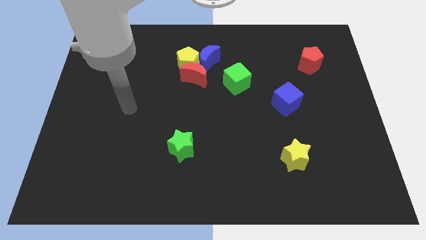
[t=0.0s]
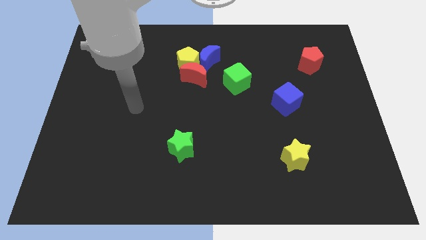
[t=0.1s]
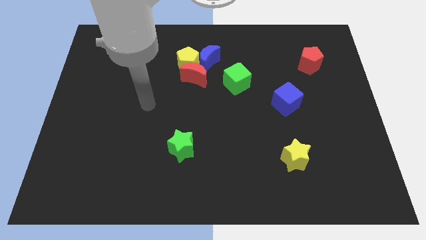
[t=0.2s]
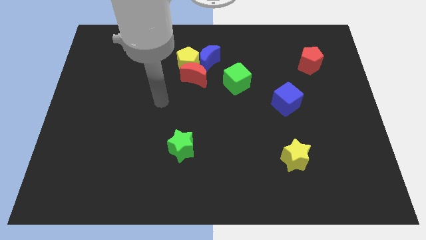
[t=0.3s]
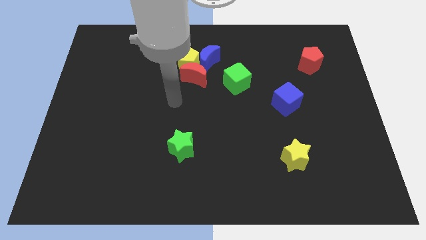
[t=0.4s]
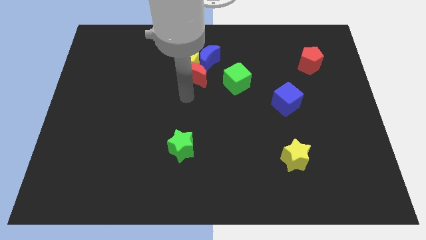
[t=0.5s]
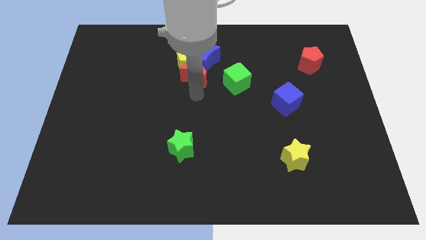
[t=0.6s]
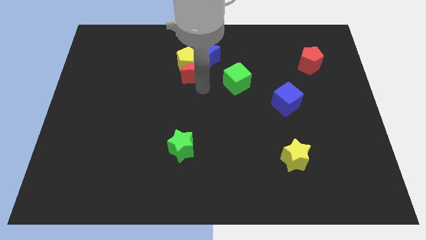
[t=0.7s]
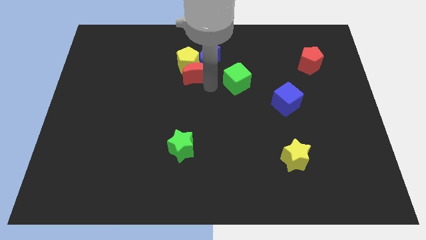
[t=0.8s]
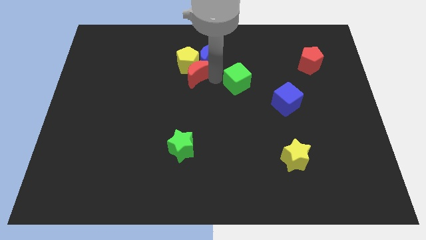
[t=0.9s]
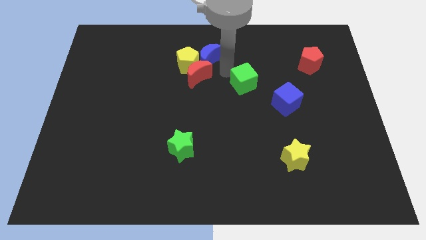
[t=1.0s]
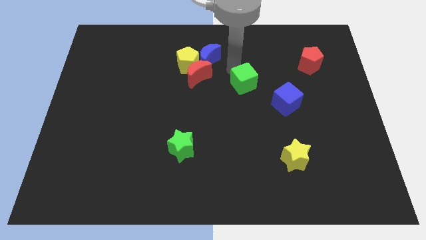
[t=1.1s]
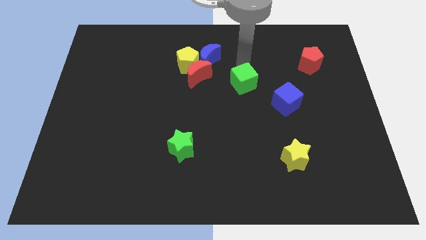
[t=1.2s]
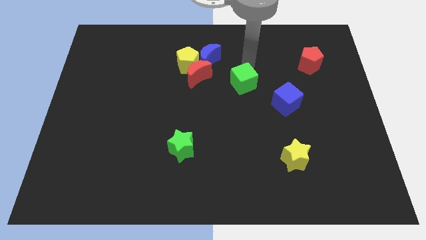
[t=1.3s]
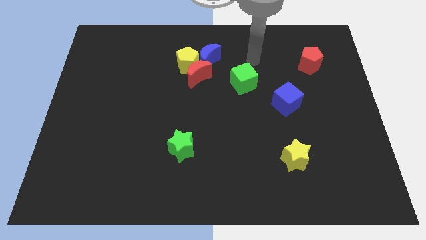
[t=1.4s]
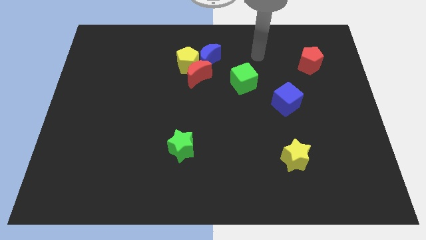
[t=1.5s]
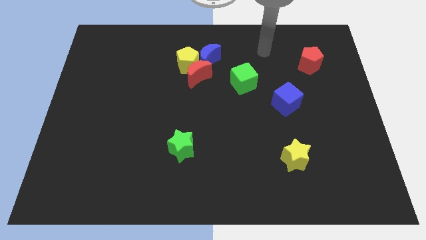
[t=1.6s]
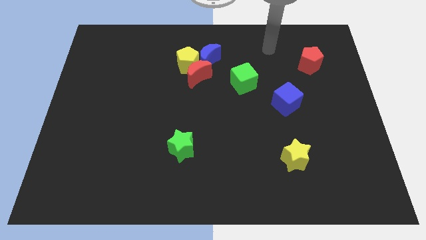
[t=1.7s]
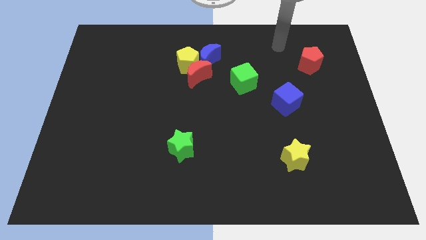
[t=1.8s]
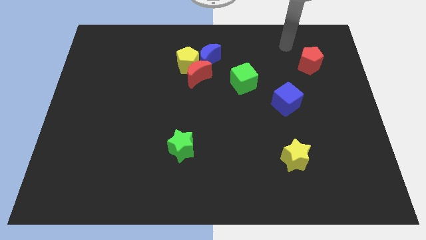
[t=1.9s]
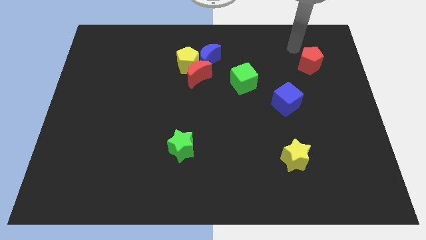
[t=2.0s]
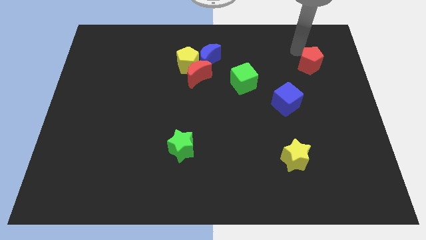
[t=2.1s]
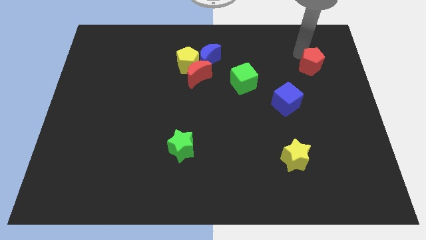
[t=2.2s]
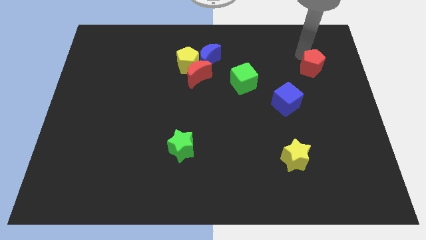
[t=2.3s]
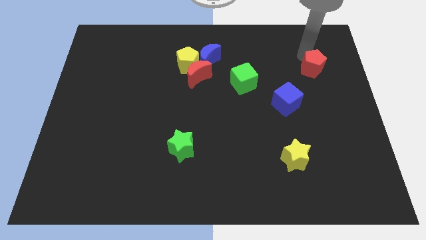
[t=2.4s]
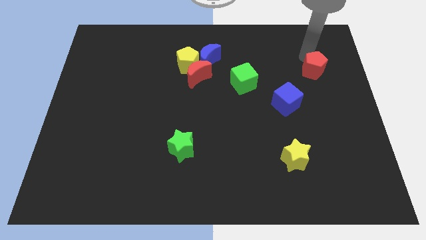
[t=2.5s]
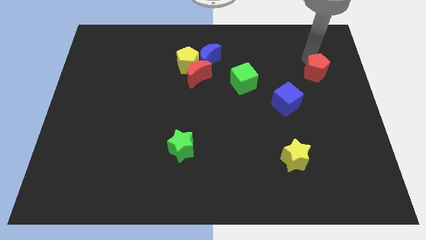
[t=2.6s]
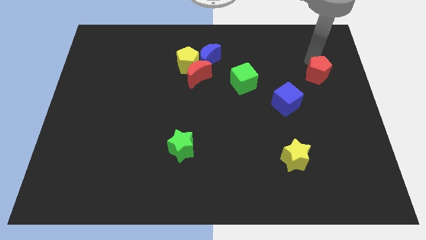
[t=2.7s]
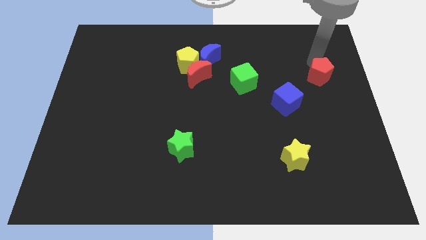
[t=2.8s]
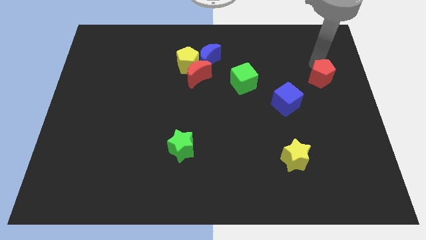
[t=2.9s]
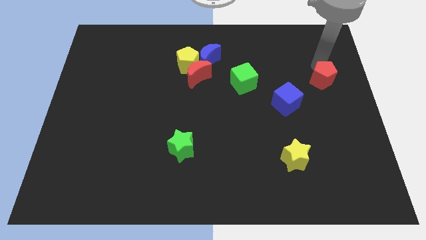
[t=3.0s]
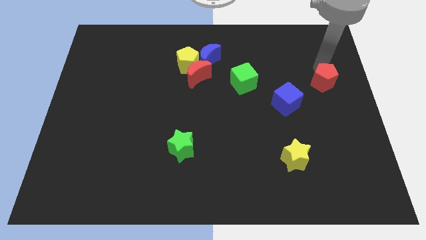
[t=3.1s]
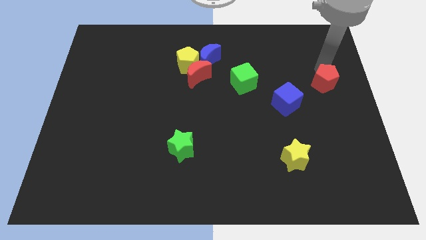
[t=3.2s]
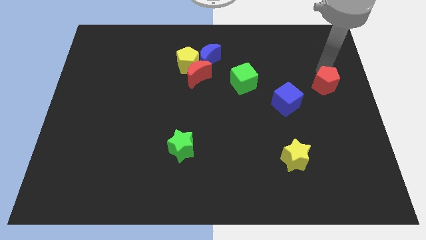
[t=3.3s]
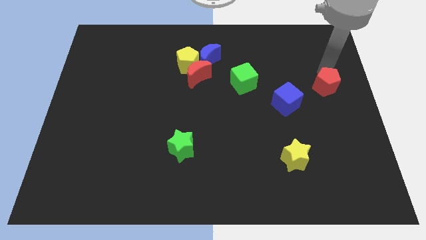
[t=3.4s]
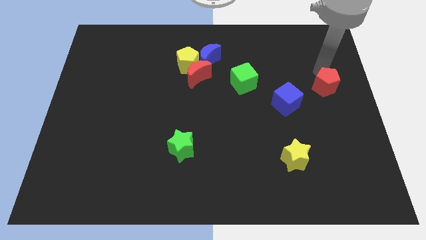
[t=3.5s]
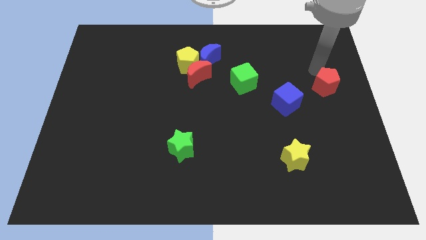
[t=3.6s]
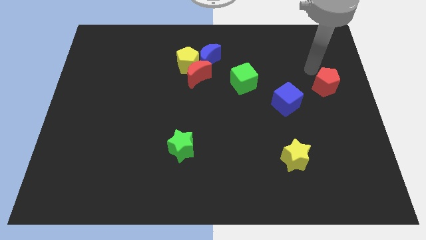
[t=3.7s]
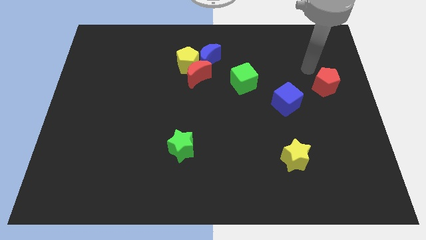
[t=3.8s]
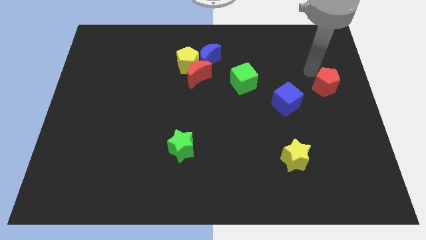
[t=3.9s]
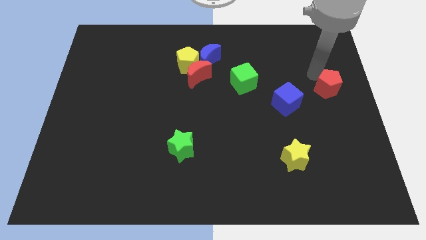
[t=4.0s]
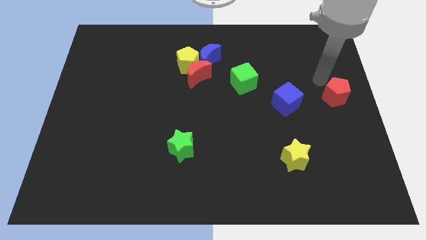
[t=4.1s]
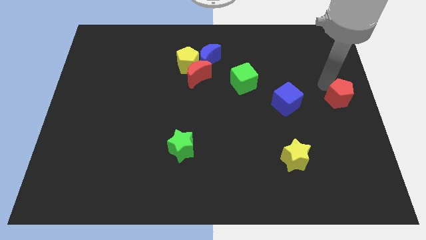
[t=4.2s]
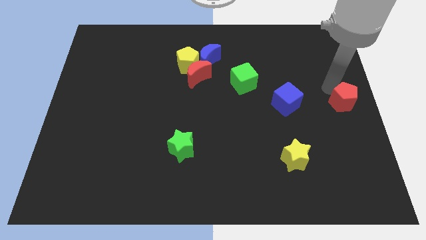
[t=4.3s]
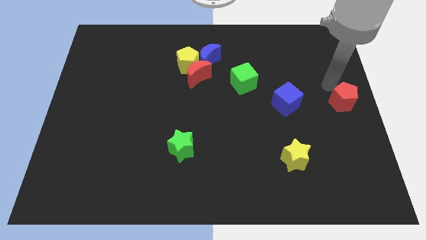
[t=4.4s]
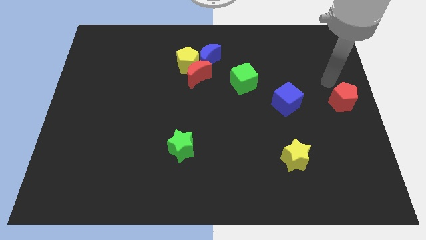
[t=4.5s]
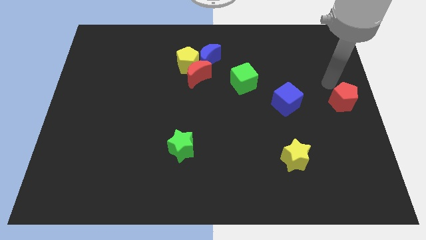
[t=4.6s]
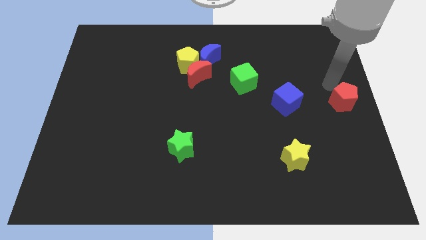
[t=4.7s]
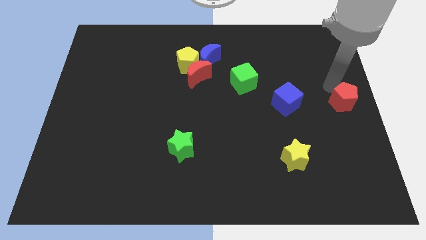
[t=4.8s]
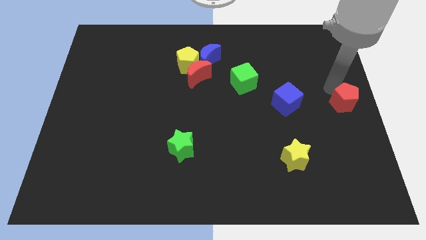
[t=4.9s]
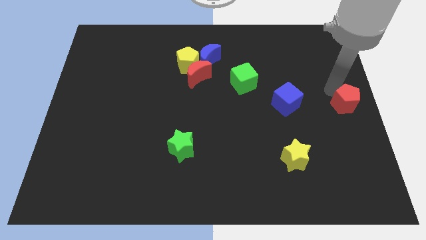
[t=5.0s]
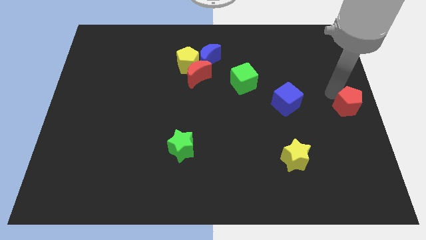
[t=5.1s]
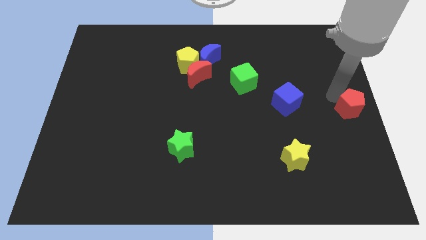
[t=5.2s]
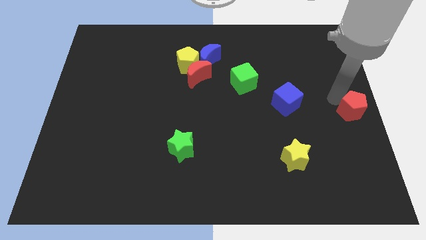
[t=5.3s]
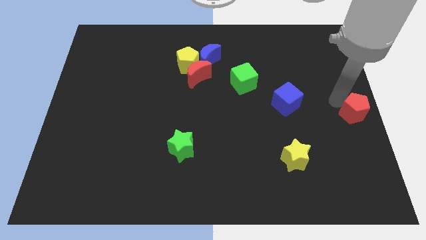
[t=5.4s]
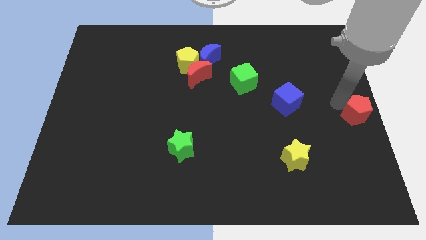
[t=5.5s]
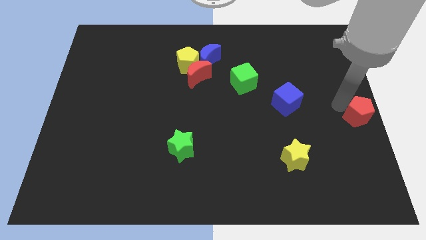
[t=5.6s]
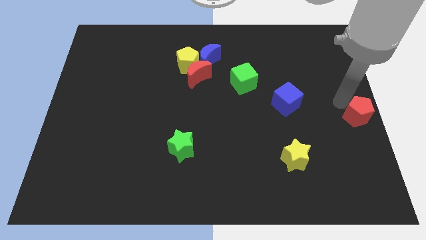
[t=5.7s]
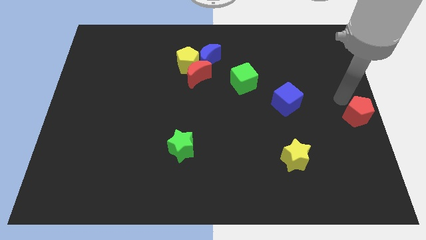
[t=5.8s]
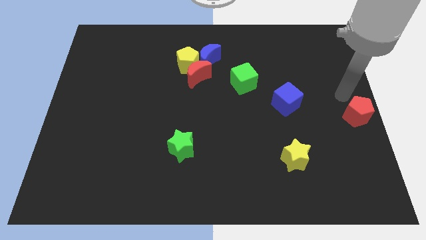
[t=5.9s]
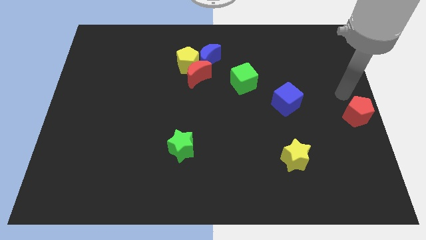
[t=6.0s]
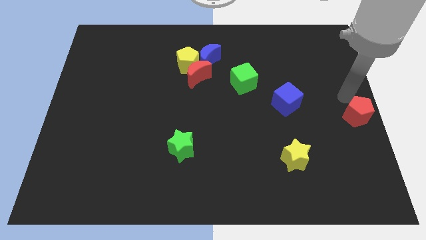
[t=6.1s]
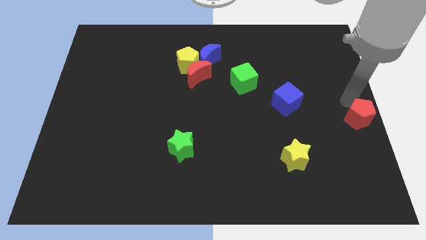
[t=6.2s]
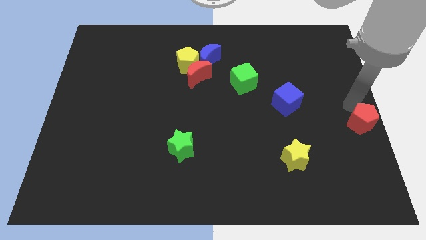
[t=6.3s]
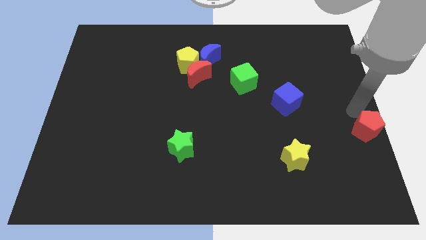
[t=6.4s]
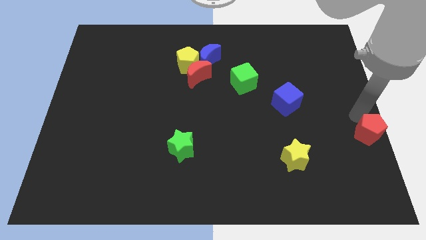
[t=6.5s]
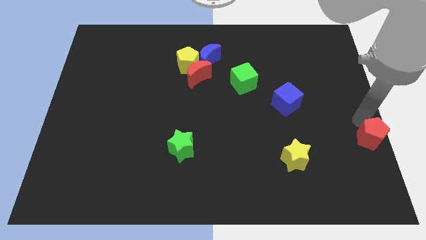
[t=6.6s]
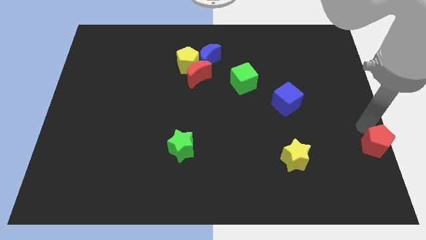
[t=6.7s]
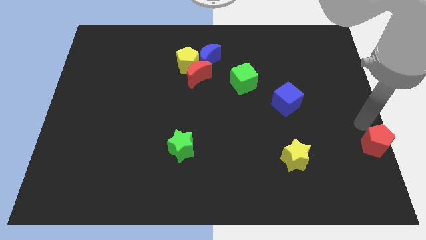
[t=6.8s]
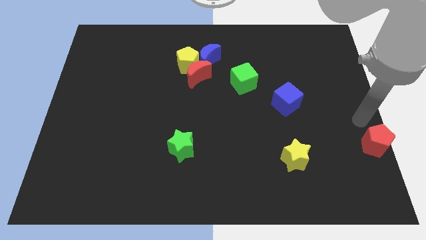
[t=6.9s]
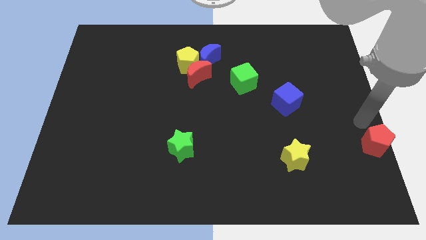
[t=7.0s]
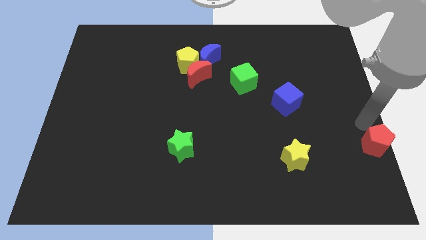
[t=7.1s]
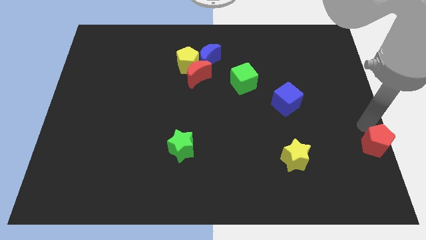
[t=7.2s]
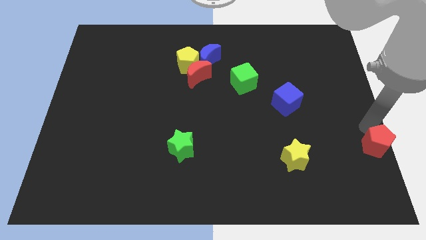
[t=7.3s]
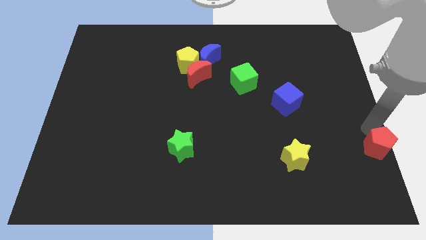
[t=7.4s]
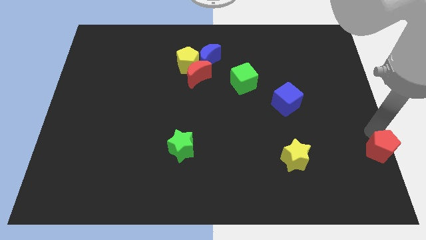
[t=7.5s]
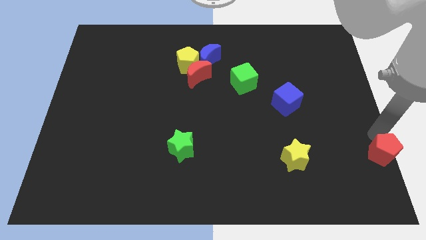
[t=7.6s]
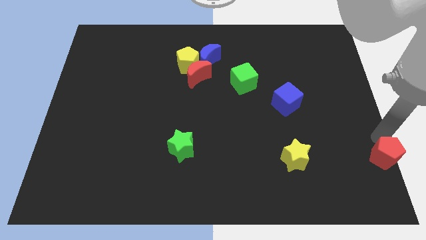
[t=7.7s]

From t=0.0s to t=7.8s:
push the red pentagon to the lower right corner
